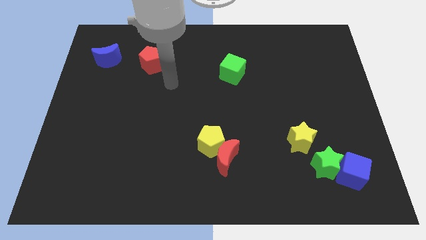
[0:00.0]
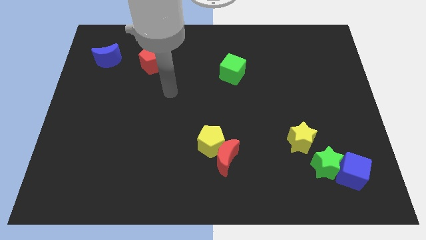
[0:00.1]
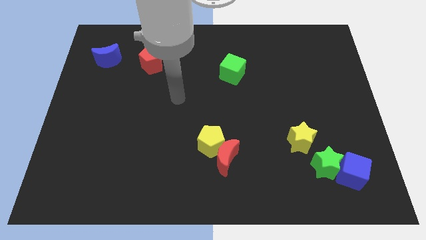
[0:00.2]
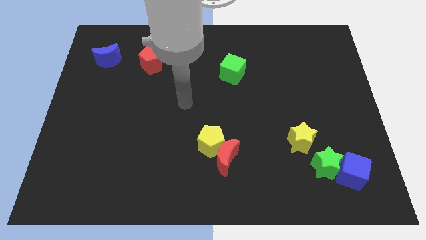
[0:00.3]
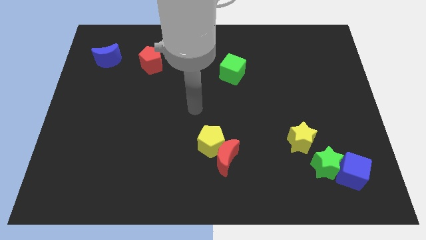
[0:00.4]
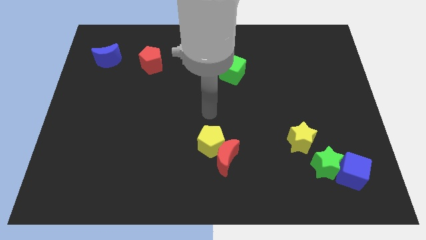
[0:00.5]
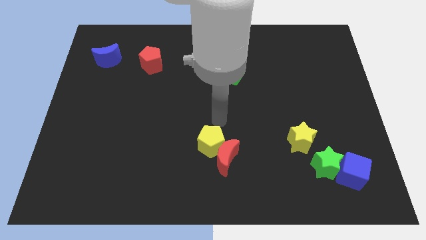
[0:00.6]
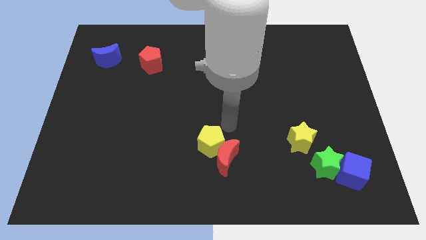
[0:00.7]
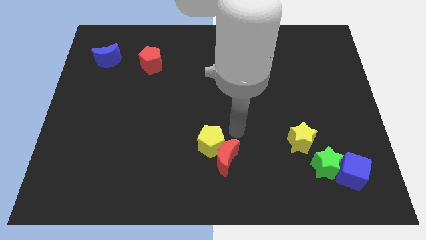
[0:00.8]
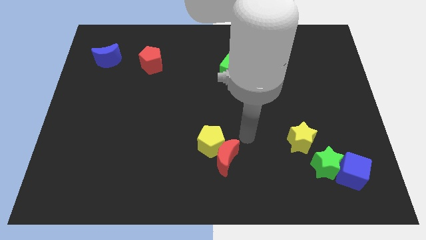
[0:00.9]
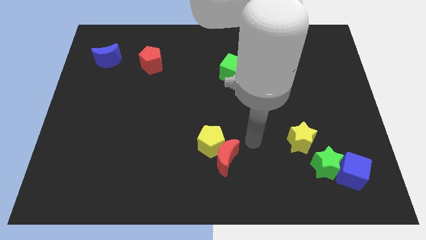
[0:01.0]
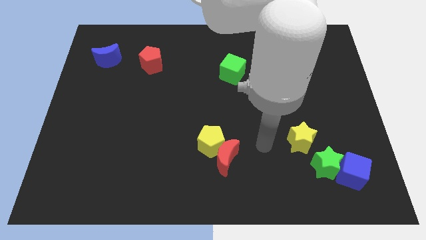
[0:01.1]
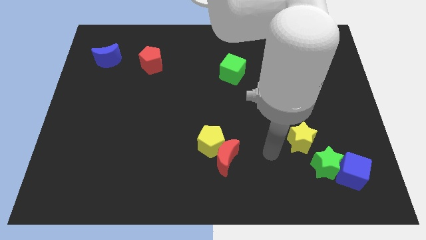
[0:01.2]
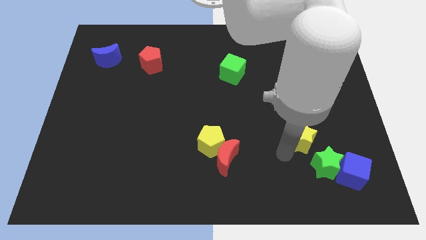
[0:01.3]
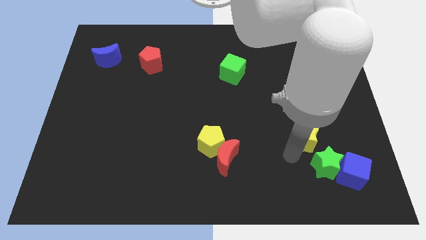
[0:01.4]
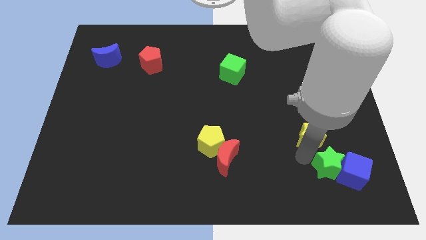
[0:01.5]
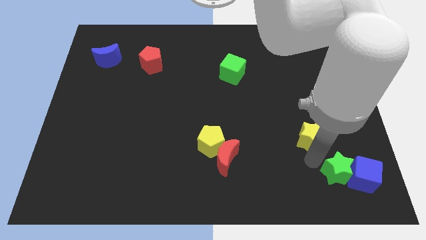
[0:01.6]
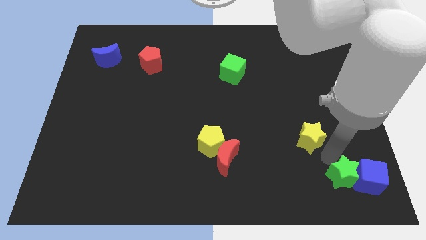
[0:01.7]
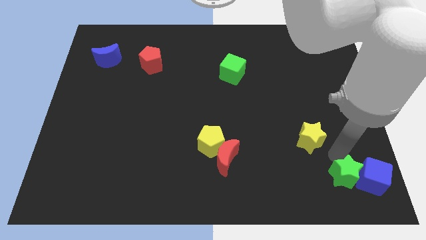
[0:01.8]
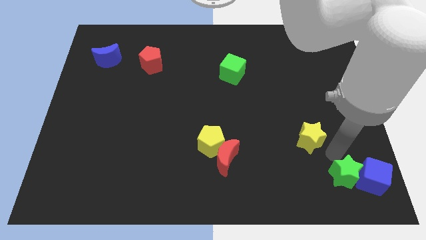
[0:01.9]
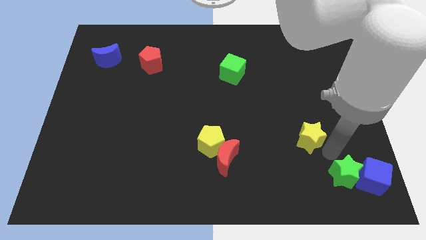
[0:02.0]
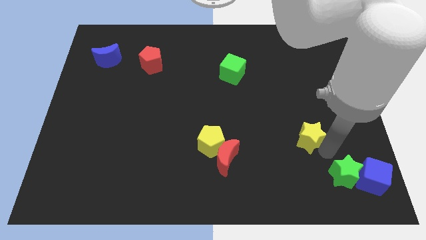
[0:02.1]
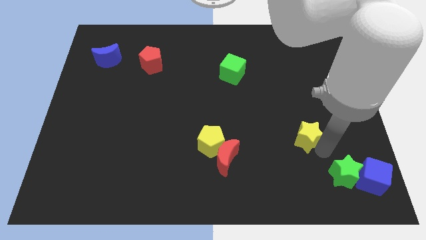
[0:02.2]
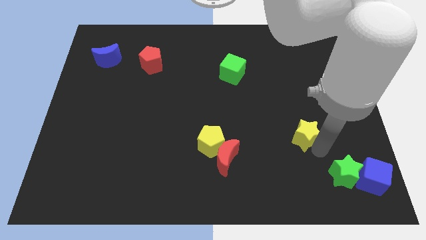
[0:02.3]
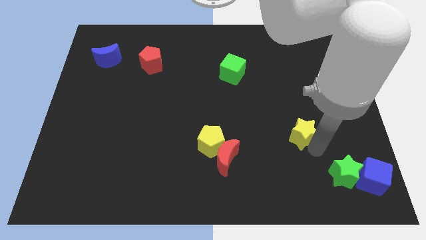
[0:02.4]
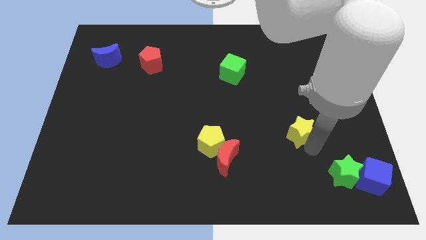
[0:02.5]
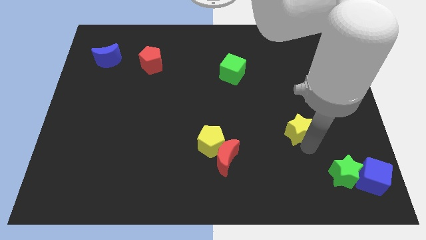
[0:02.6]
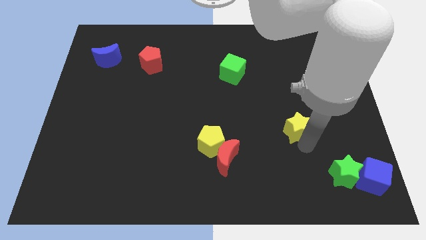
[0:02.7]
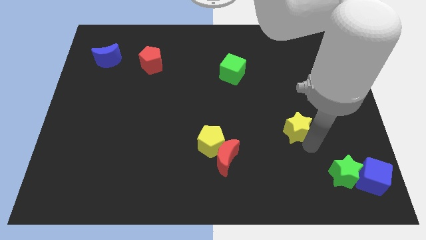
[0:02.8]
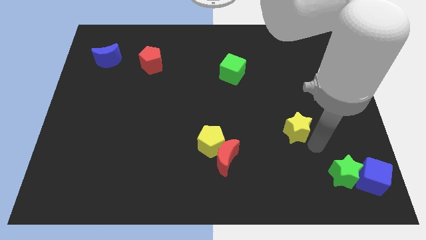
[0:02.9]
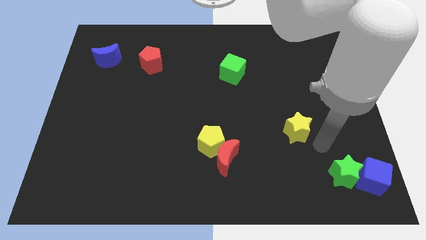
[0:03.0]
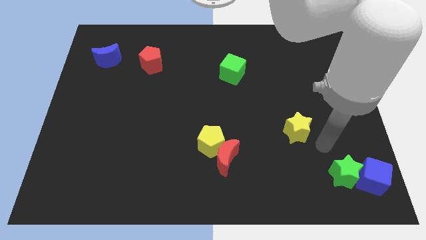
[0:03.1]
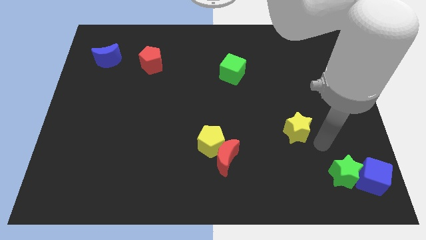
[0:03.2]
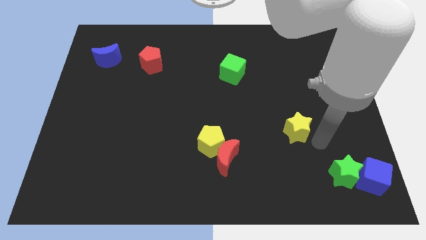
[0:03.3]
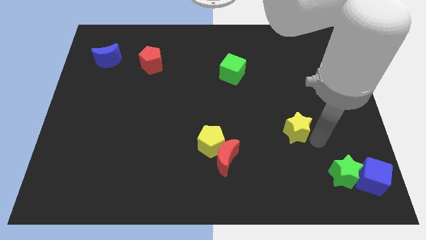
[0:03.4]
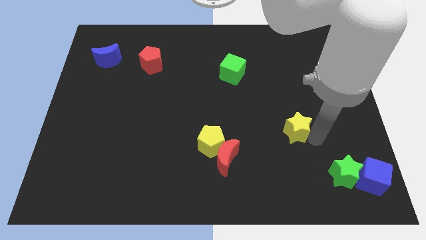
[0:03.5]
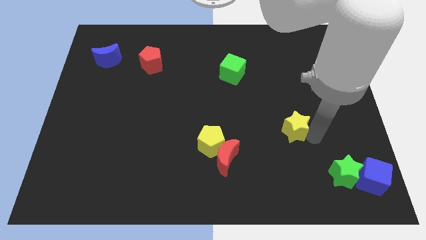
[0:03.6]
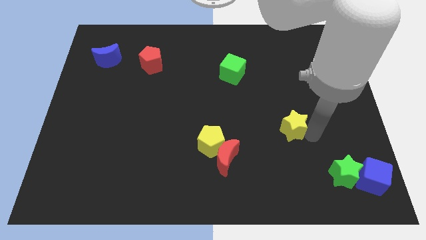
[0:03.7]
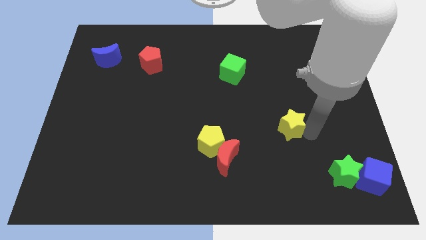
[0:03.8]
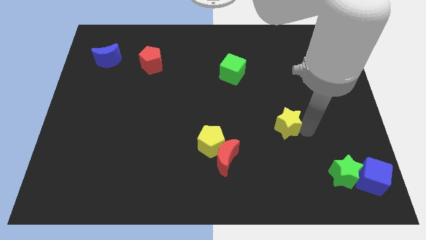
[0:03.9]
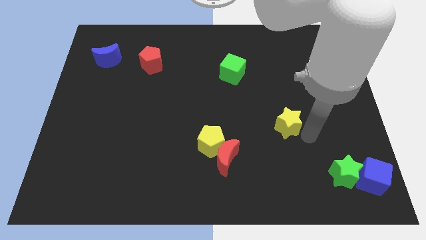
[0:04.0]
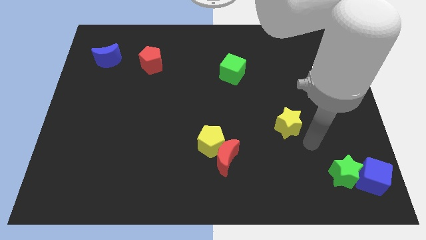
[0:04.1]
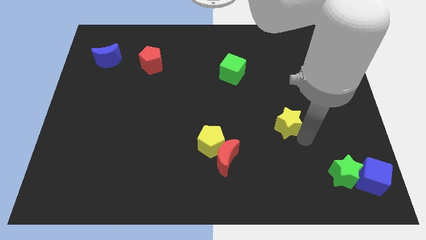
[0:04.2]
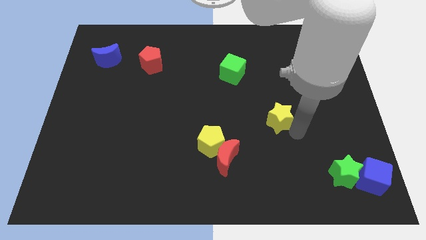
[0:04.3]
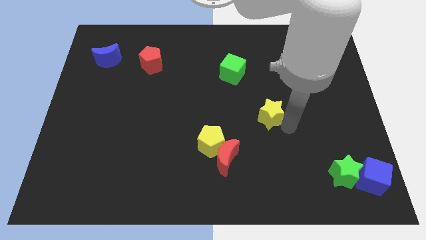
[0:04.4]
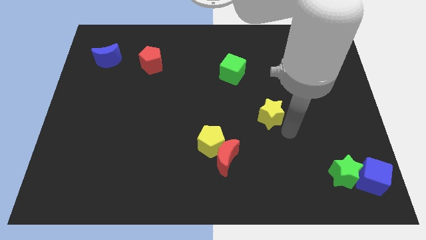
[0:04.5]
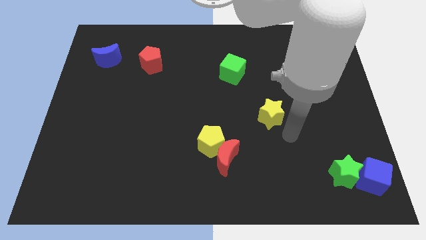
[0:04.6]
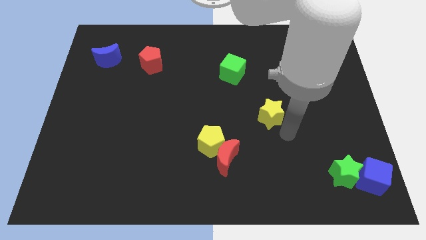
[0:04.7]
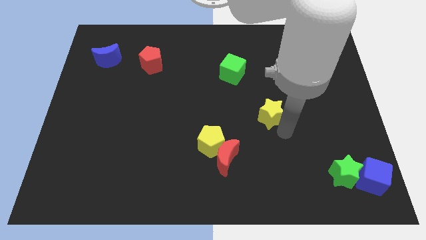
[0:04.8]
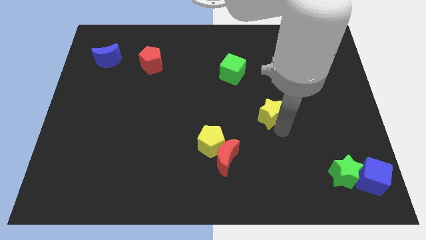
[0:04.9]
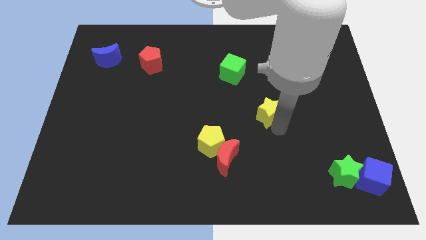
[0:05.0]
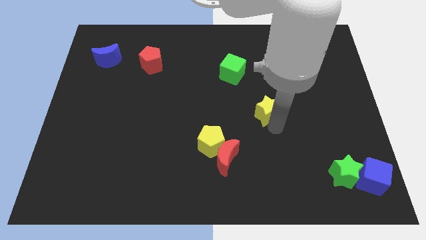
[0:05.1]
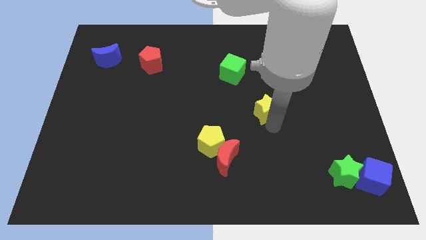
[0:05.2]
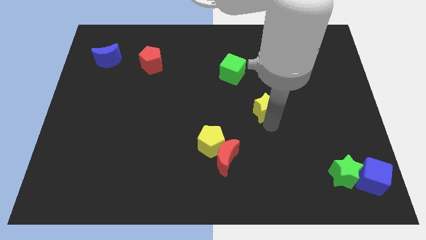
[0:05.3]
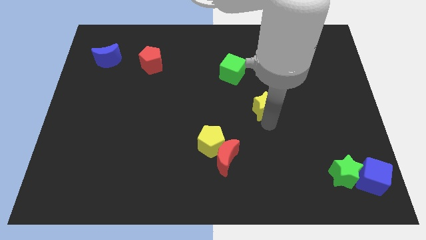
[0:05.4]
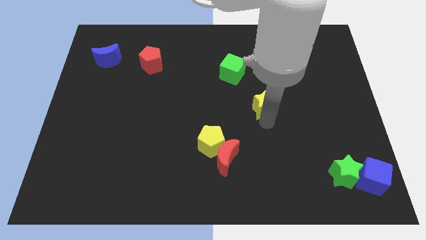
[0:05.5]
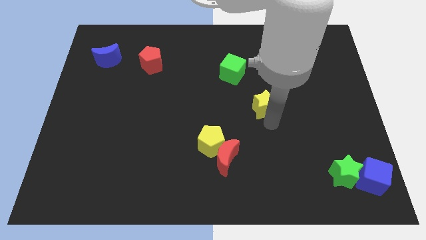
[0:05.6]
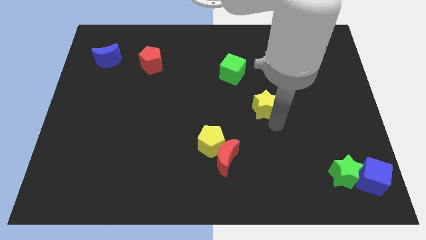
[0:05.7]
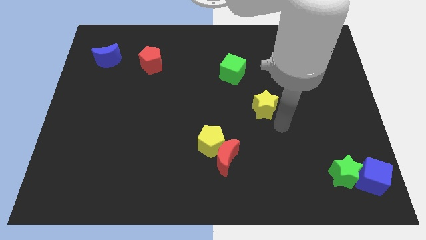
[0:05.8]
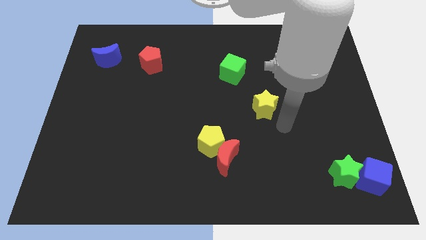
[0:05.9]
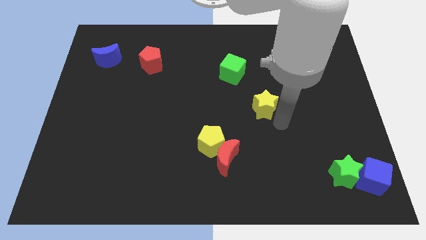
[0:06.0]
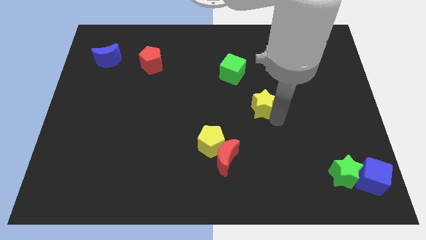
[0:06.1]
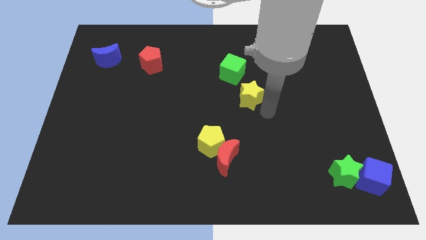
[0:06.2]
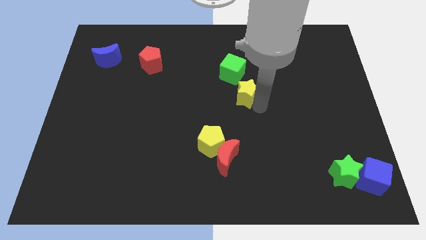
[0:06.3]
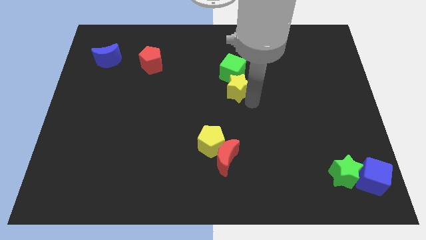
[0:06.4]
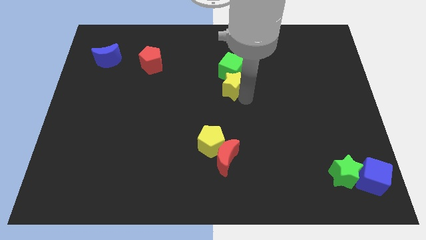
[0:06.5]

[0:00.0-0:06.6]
put the yellow star next to the green cube
